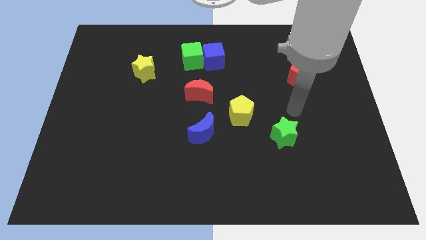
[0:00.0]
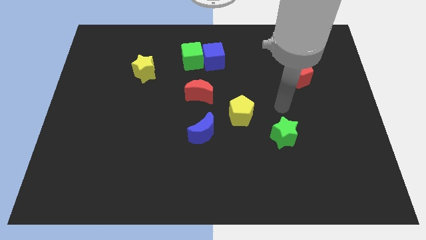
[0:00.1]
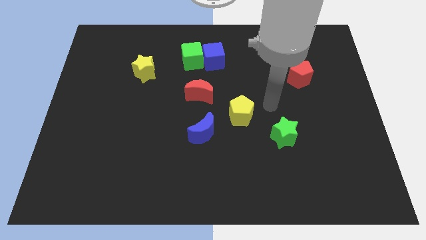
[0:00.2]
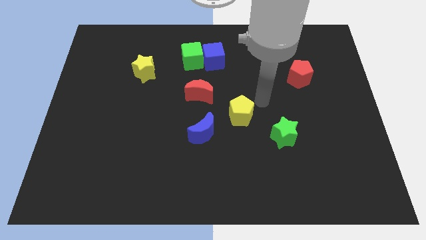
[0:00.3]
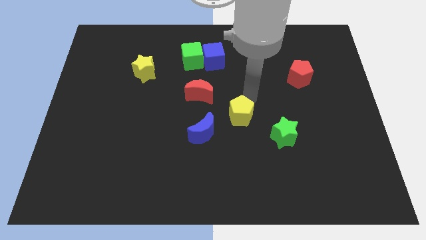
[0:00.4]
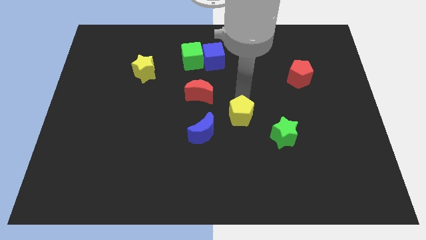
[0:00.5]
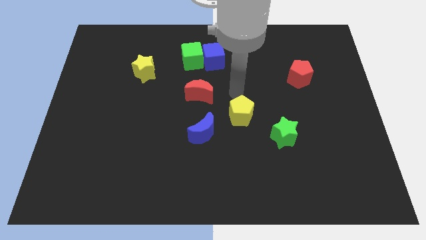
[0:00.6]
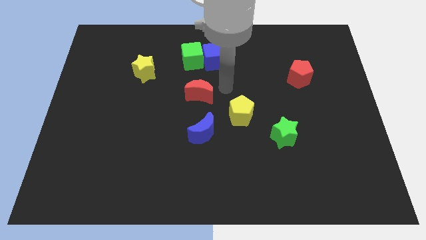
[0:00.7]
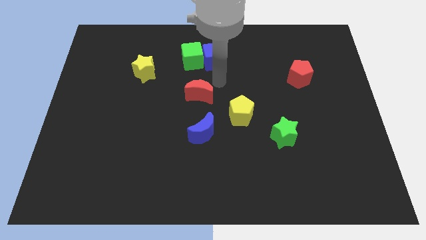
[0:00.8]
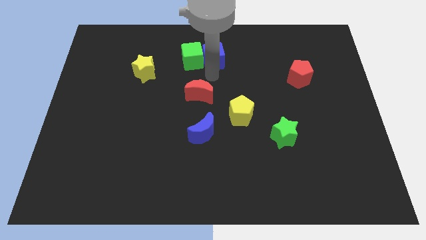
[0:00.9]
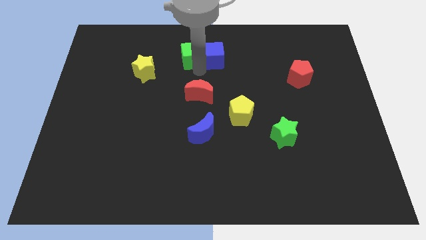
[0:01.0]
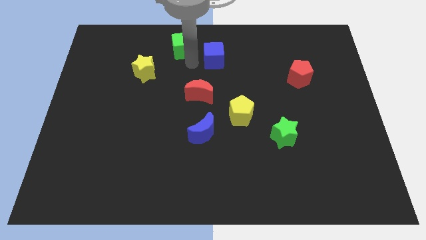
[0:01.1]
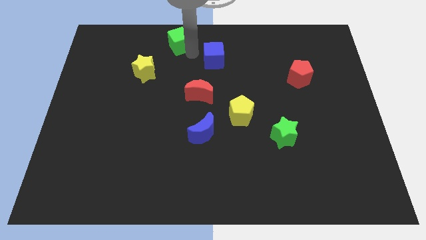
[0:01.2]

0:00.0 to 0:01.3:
move the blue cube away from the green cube

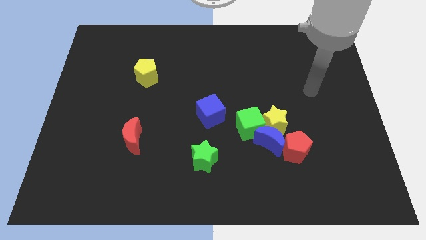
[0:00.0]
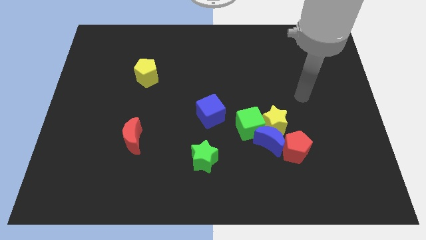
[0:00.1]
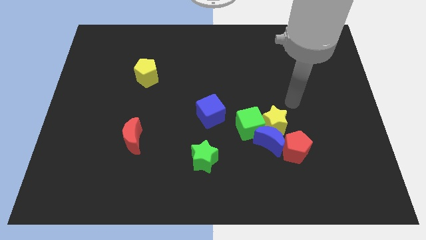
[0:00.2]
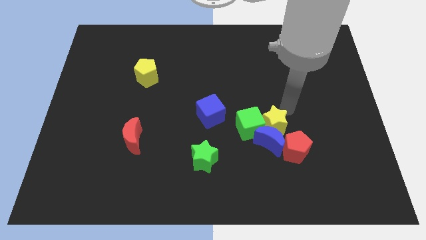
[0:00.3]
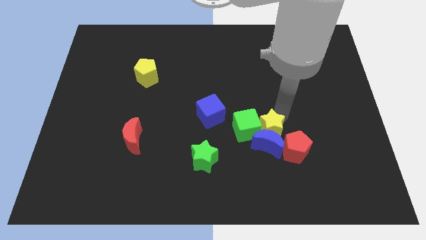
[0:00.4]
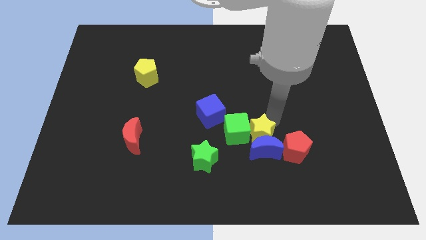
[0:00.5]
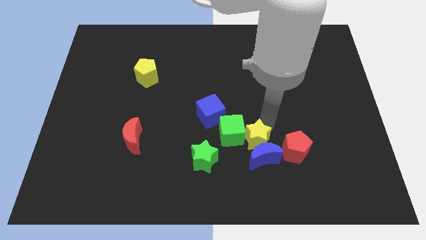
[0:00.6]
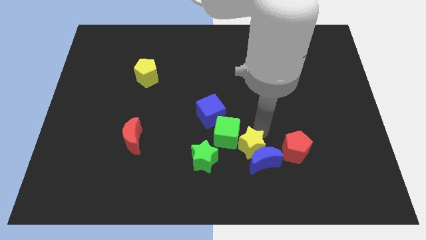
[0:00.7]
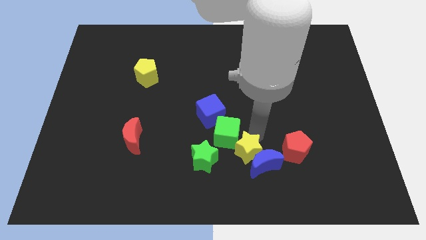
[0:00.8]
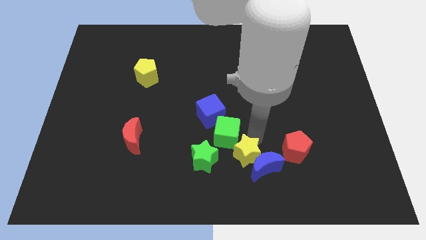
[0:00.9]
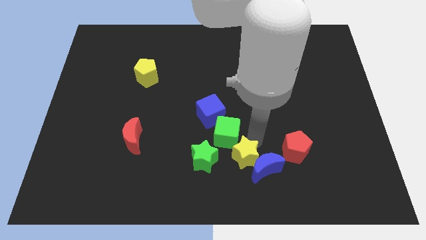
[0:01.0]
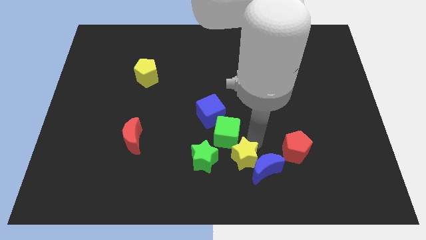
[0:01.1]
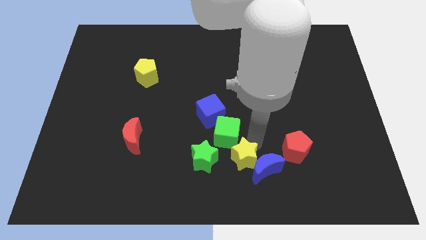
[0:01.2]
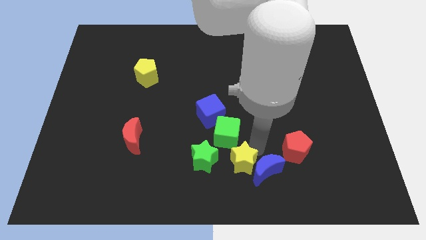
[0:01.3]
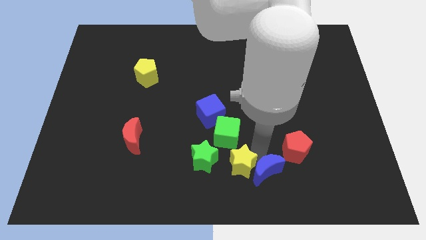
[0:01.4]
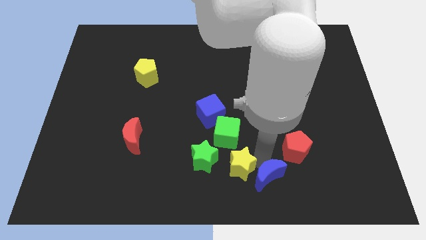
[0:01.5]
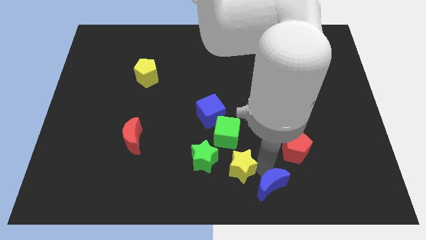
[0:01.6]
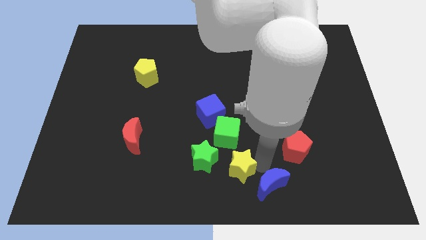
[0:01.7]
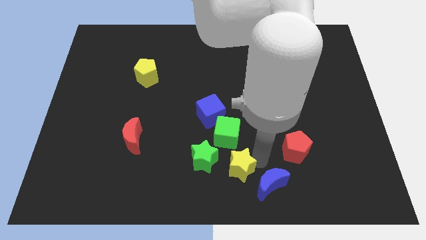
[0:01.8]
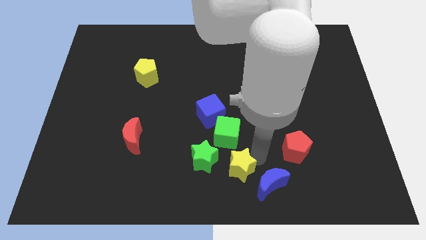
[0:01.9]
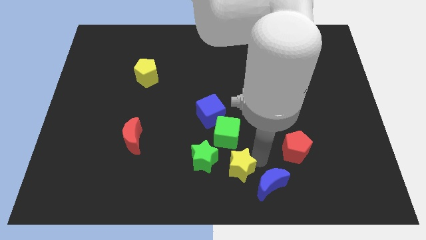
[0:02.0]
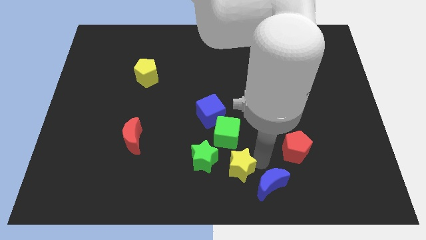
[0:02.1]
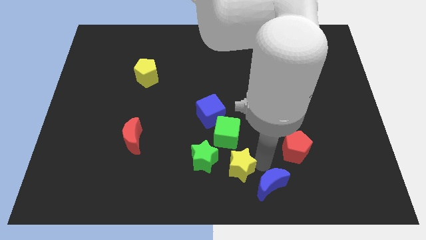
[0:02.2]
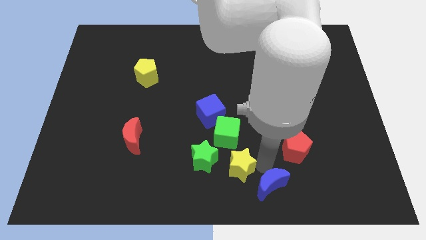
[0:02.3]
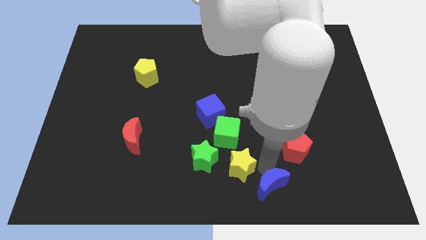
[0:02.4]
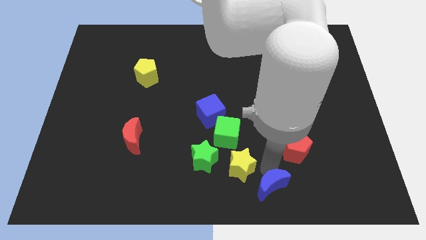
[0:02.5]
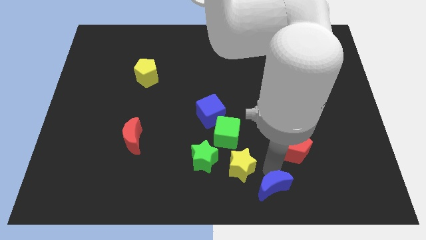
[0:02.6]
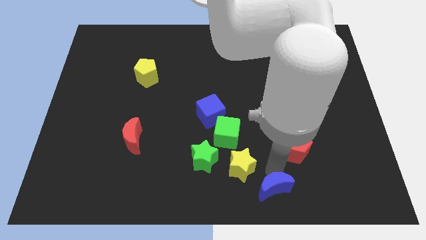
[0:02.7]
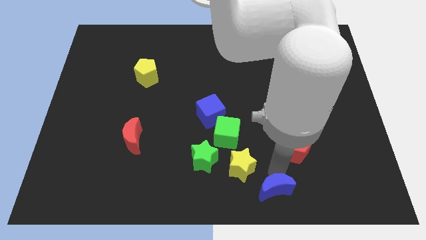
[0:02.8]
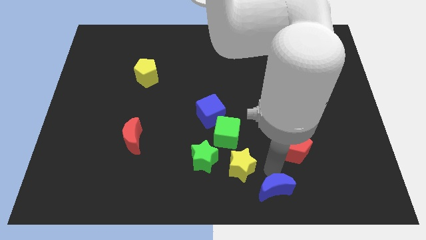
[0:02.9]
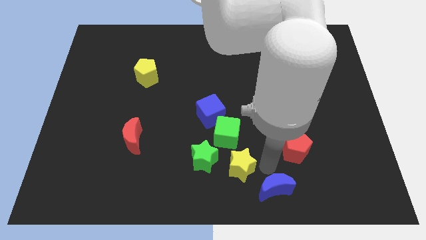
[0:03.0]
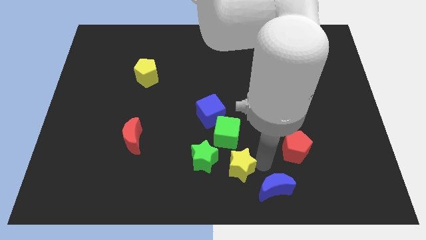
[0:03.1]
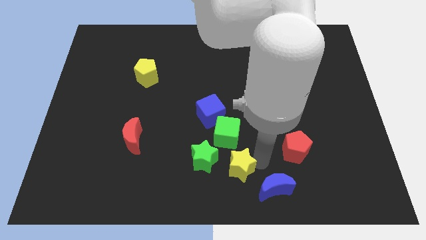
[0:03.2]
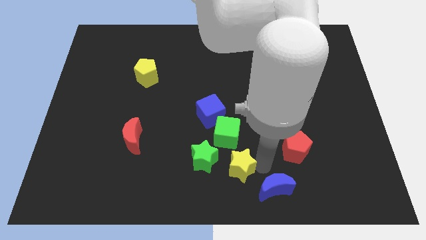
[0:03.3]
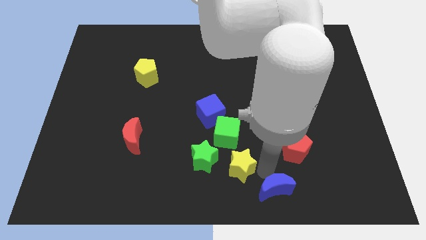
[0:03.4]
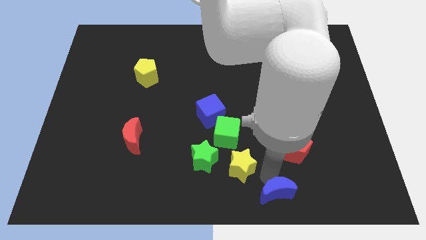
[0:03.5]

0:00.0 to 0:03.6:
pull the blue moon apart from the group of blocks

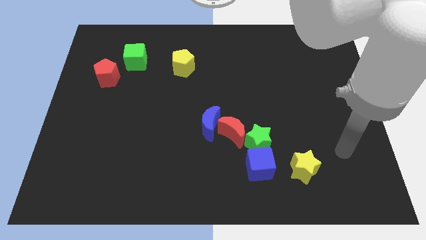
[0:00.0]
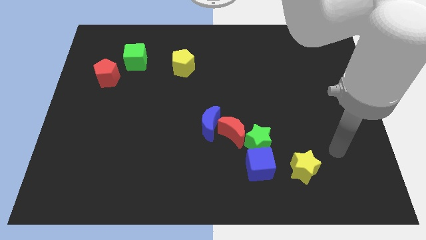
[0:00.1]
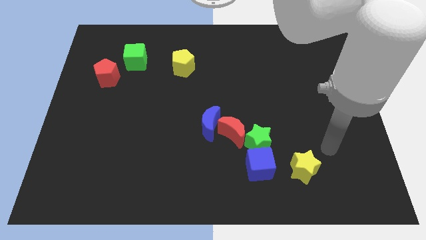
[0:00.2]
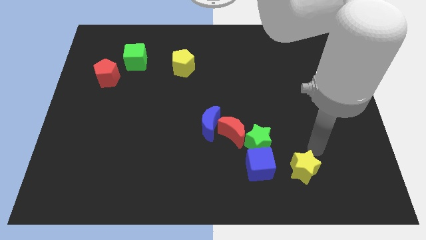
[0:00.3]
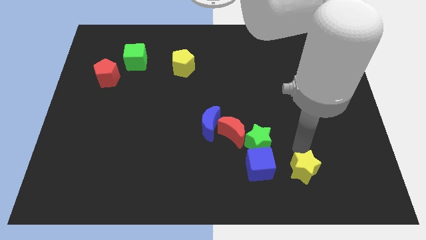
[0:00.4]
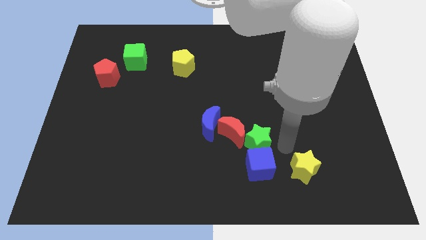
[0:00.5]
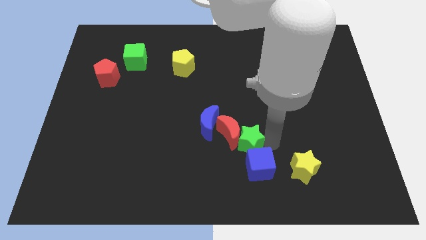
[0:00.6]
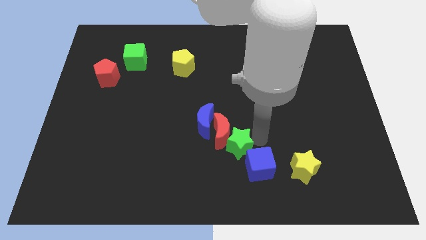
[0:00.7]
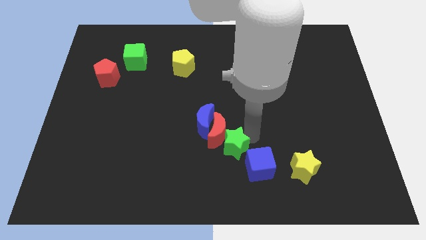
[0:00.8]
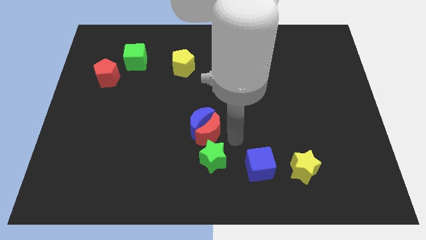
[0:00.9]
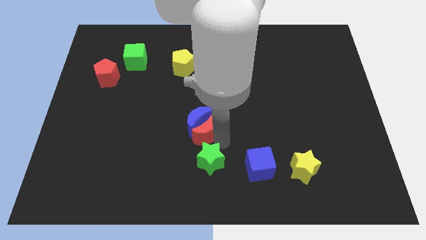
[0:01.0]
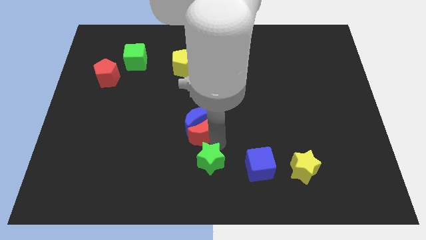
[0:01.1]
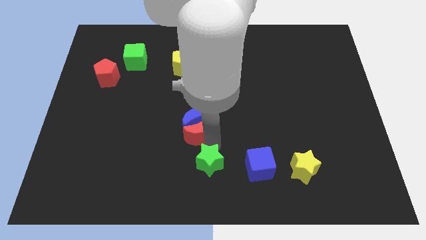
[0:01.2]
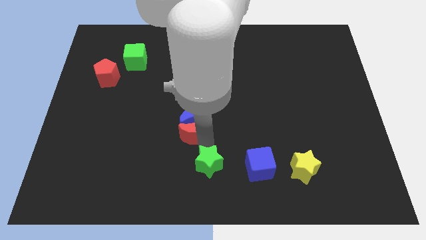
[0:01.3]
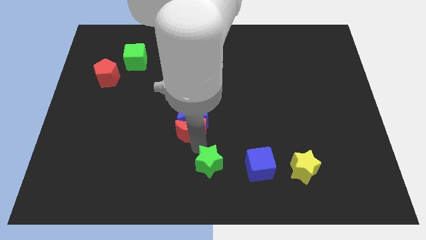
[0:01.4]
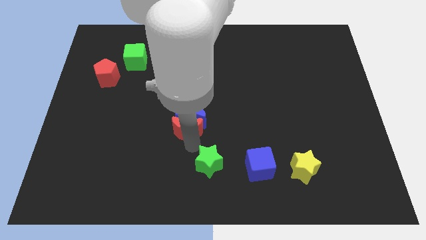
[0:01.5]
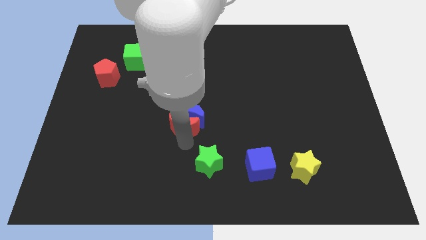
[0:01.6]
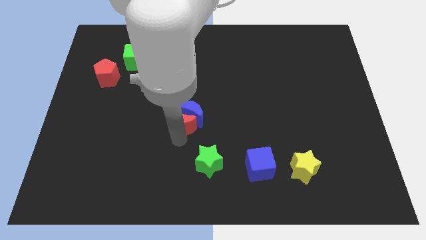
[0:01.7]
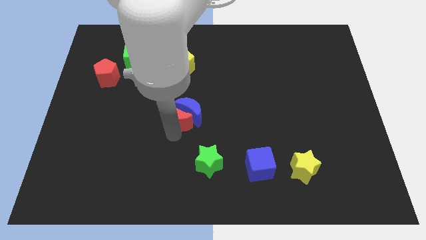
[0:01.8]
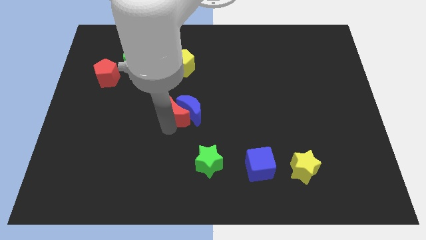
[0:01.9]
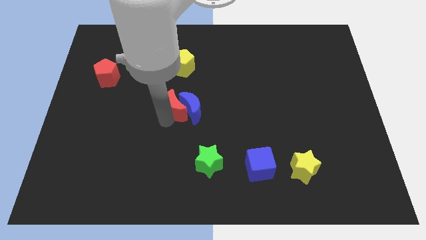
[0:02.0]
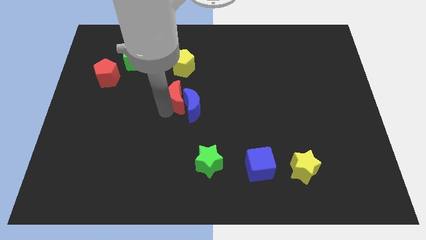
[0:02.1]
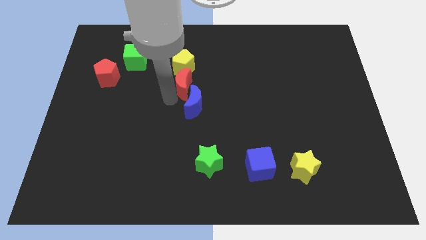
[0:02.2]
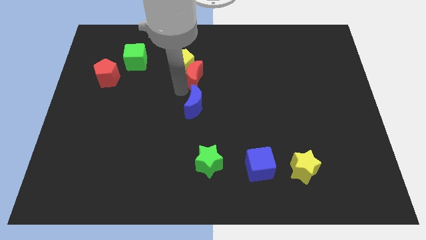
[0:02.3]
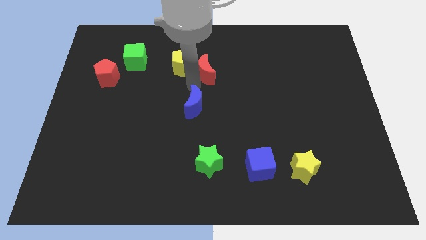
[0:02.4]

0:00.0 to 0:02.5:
pull the blue moon apart from the red moon

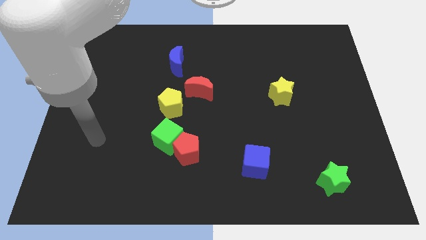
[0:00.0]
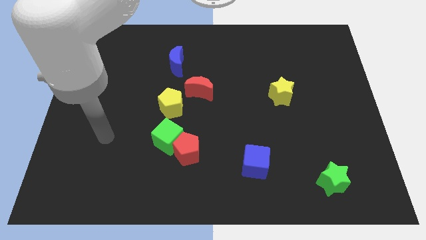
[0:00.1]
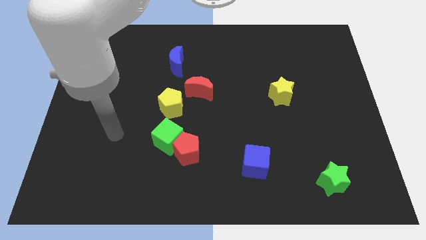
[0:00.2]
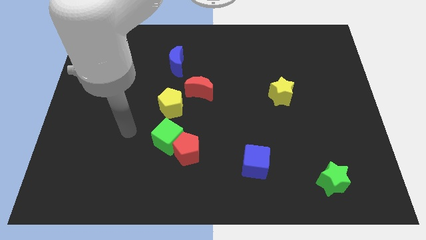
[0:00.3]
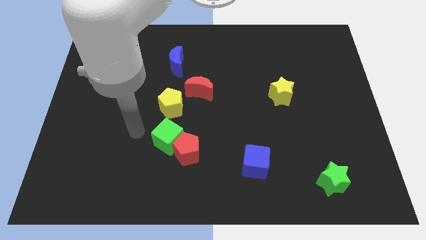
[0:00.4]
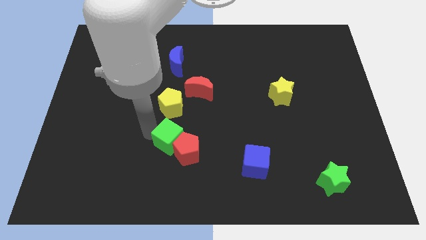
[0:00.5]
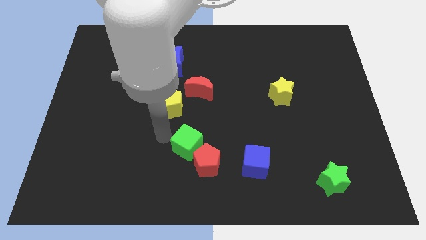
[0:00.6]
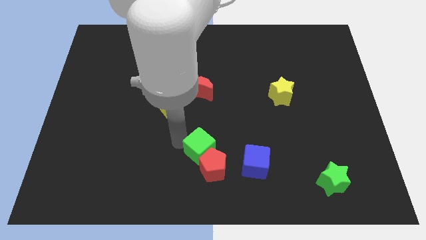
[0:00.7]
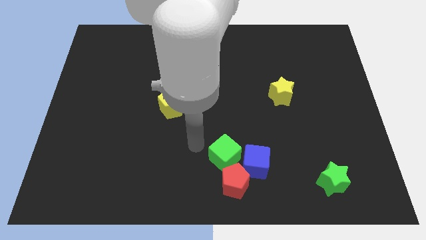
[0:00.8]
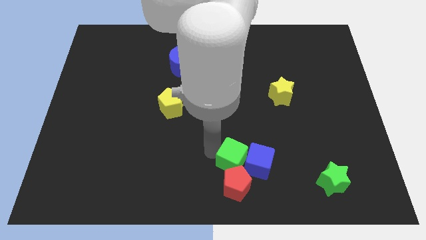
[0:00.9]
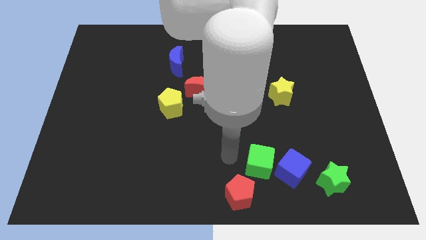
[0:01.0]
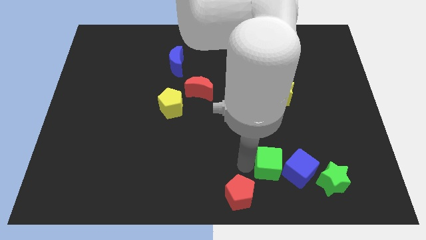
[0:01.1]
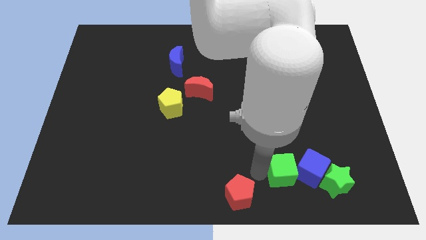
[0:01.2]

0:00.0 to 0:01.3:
pull the red pentagon apart from the green cube

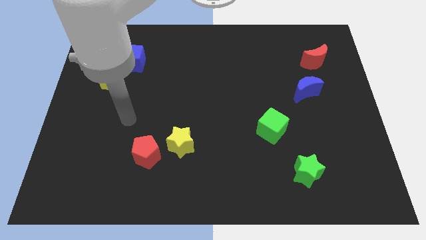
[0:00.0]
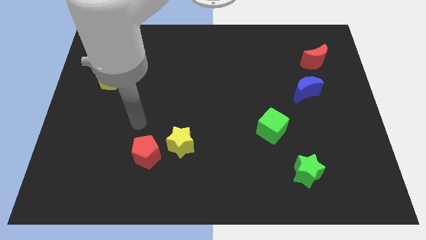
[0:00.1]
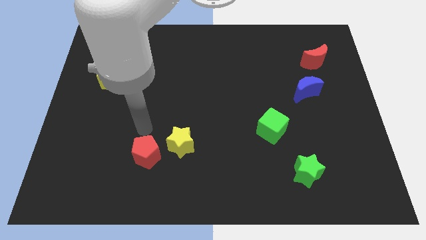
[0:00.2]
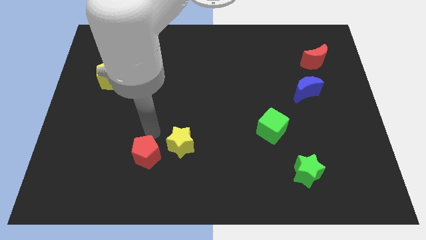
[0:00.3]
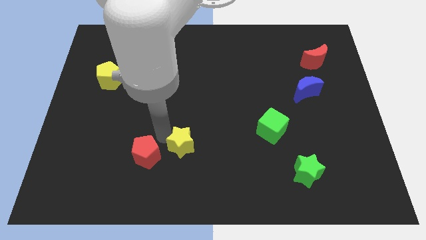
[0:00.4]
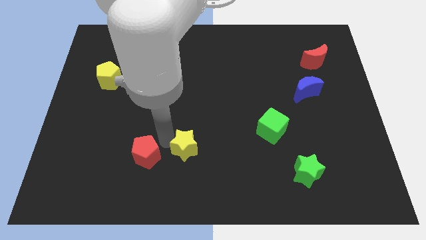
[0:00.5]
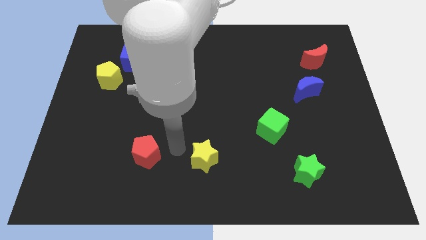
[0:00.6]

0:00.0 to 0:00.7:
move the red pentagon away from the yellow star
